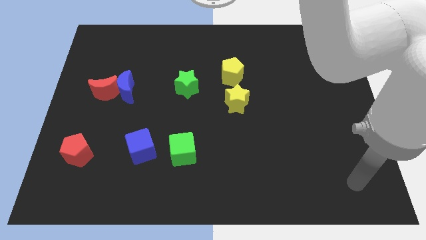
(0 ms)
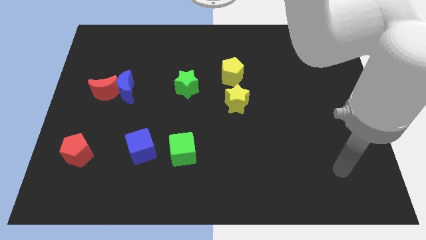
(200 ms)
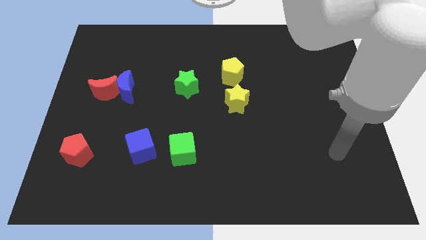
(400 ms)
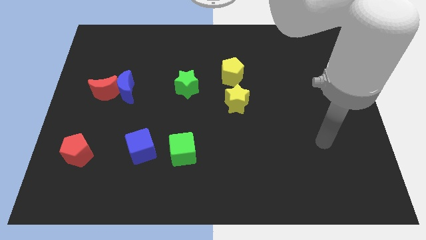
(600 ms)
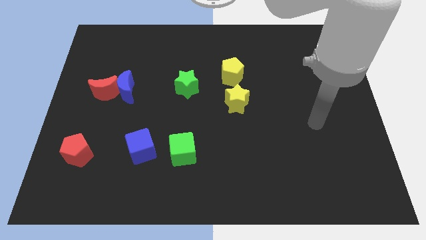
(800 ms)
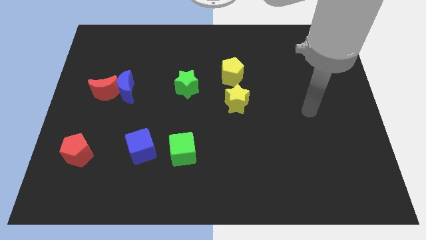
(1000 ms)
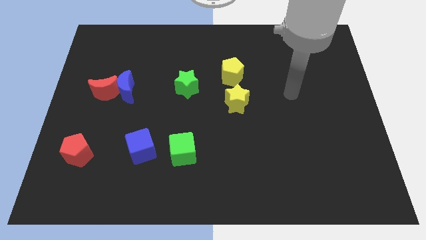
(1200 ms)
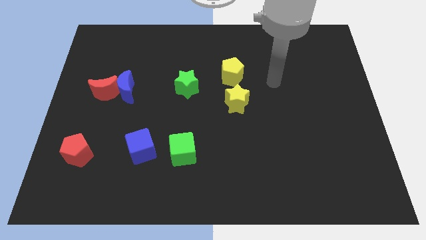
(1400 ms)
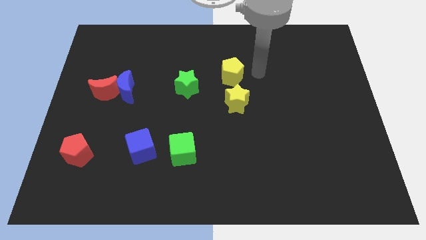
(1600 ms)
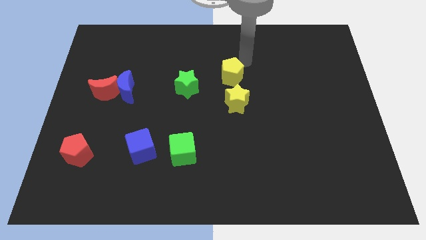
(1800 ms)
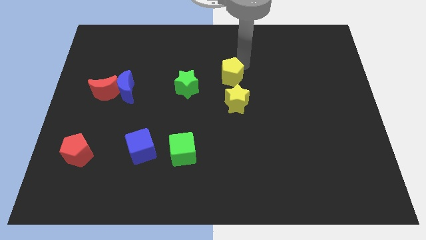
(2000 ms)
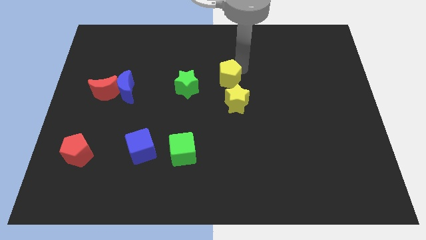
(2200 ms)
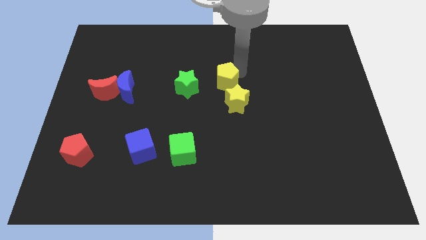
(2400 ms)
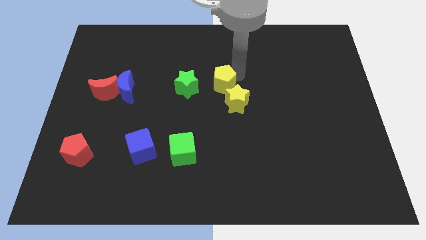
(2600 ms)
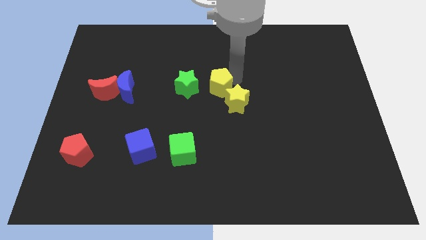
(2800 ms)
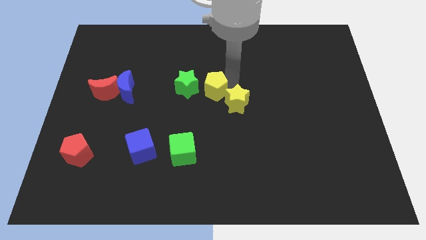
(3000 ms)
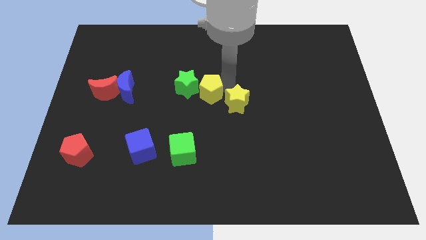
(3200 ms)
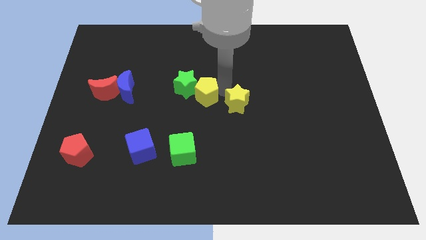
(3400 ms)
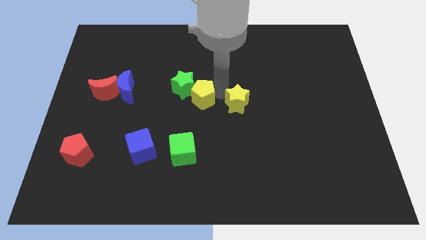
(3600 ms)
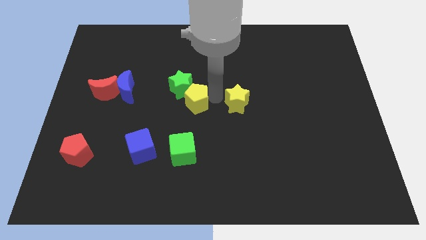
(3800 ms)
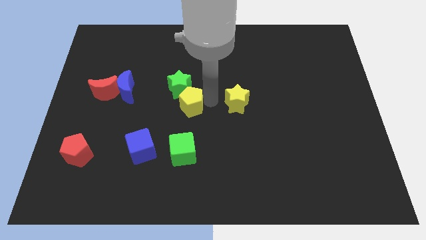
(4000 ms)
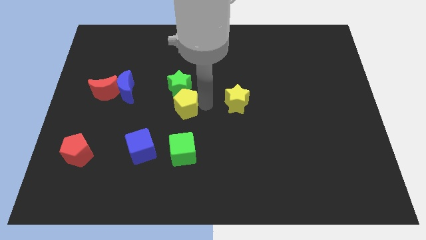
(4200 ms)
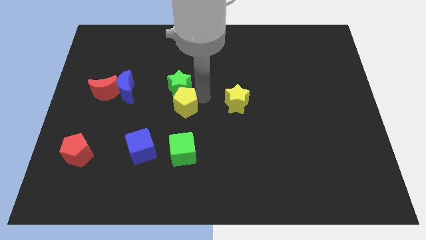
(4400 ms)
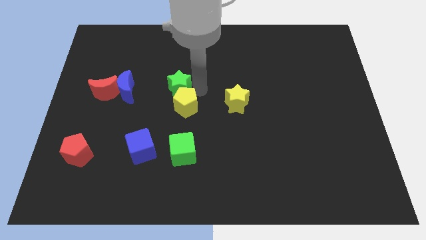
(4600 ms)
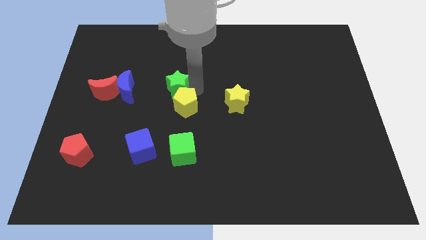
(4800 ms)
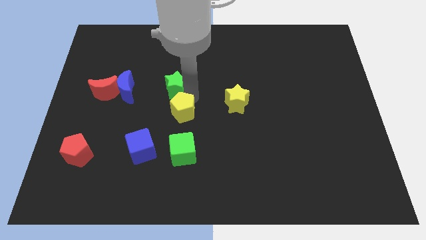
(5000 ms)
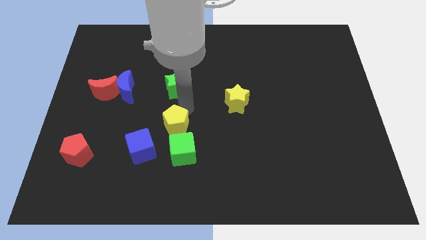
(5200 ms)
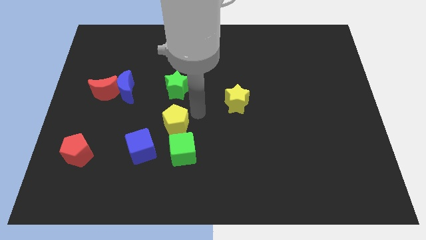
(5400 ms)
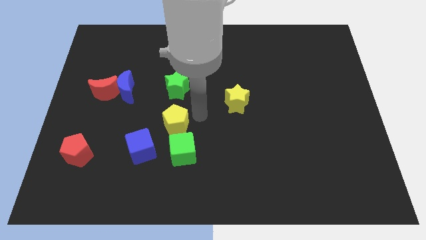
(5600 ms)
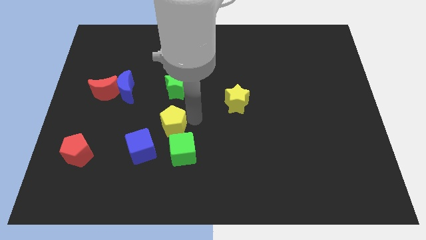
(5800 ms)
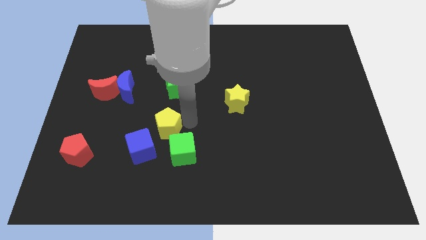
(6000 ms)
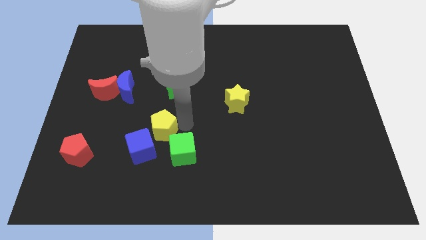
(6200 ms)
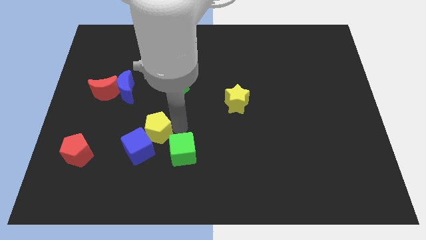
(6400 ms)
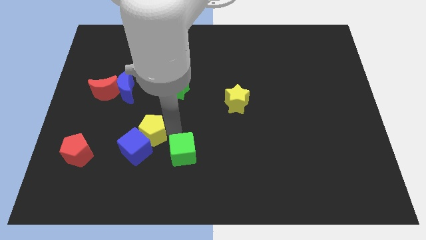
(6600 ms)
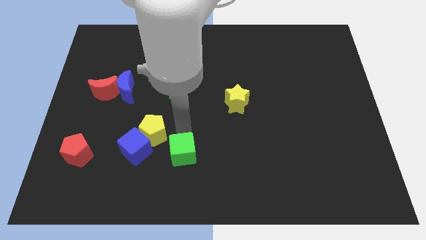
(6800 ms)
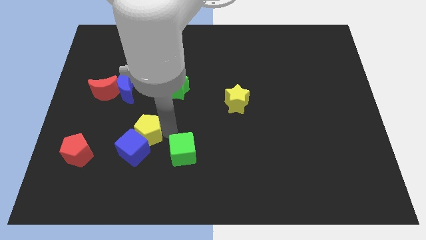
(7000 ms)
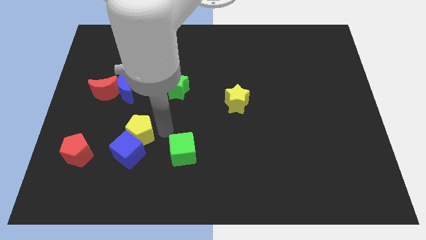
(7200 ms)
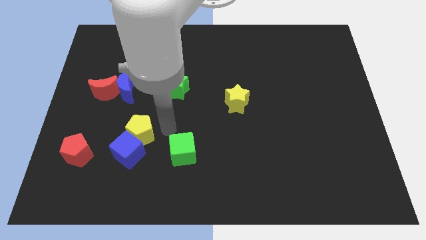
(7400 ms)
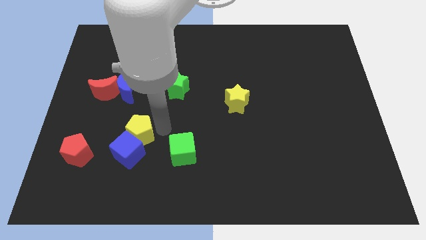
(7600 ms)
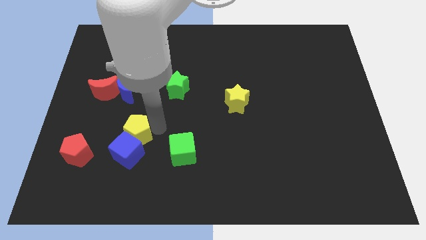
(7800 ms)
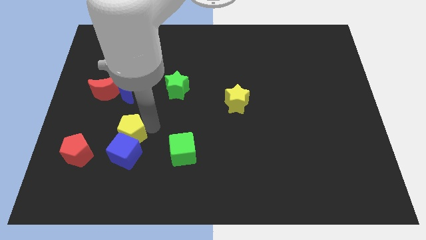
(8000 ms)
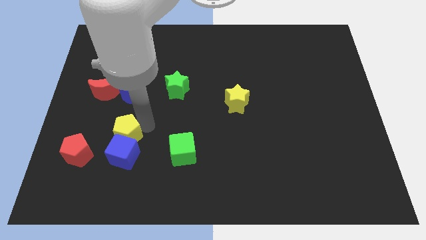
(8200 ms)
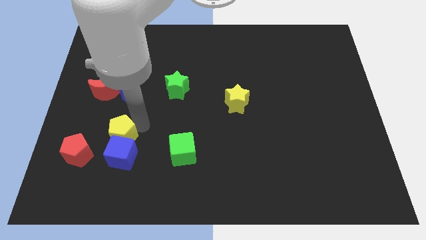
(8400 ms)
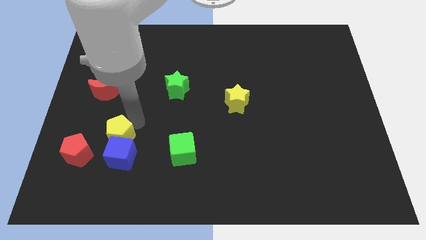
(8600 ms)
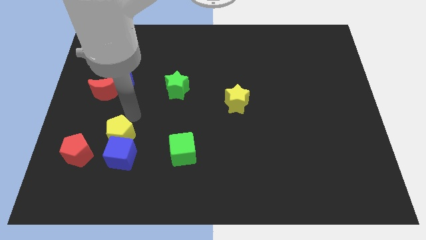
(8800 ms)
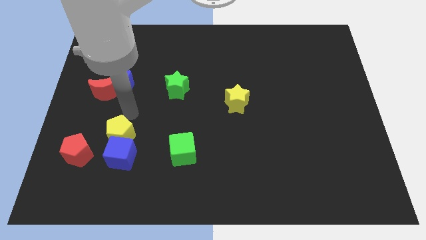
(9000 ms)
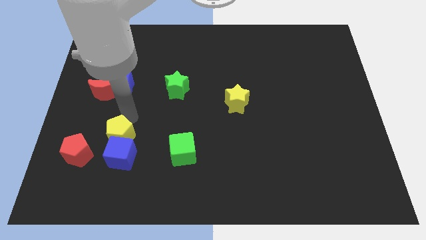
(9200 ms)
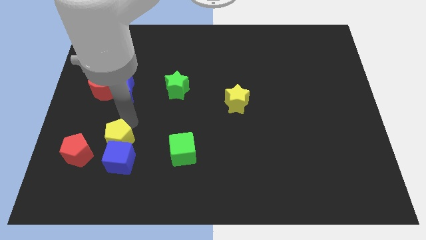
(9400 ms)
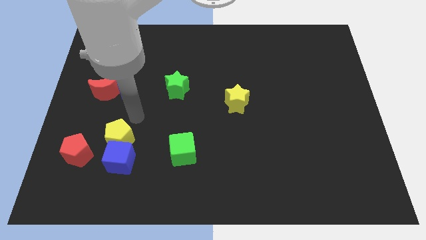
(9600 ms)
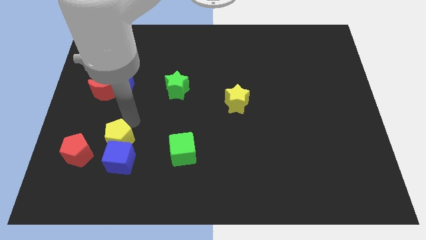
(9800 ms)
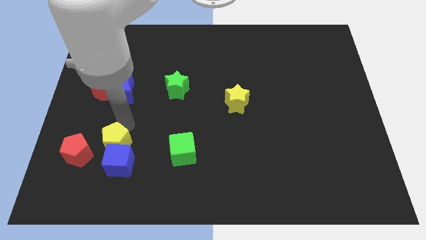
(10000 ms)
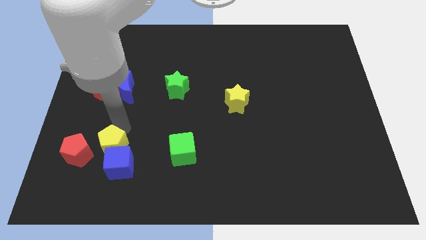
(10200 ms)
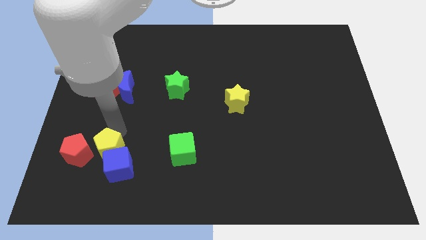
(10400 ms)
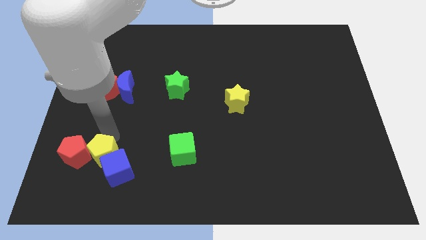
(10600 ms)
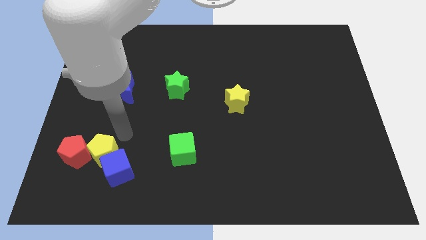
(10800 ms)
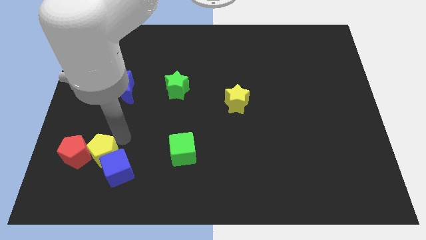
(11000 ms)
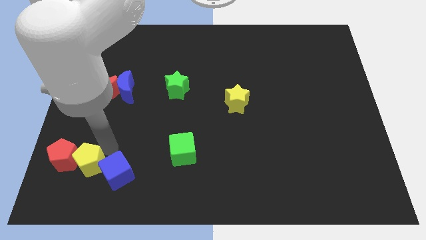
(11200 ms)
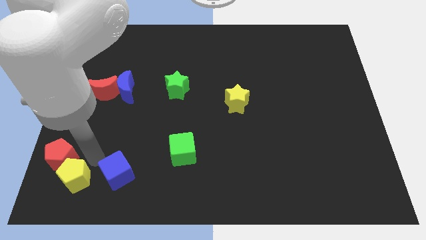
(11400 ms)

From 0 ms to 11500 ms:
put the yellow pentagon to the bottom left of the board
